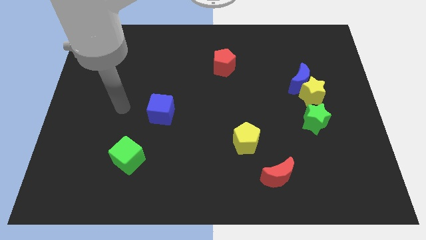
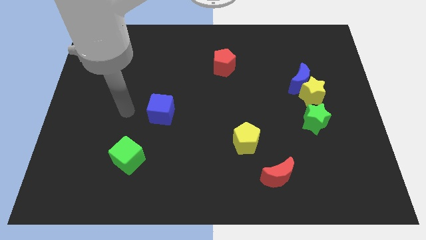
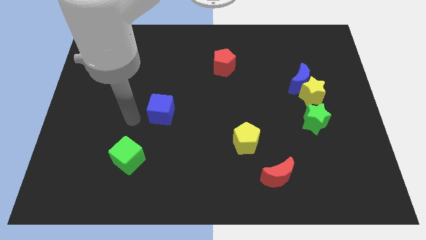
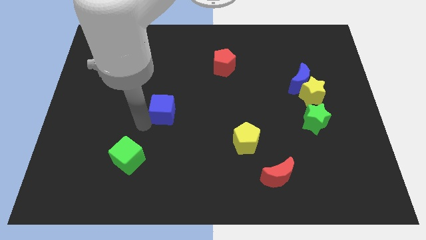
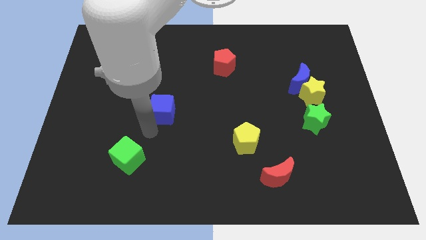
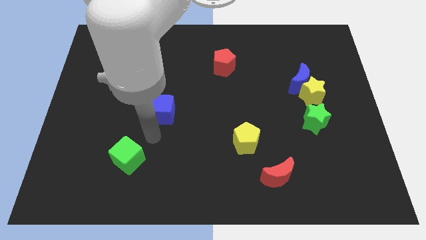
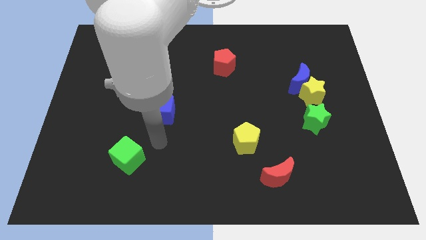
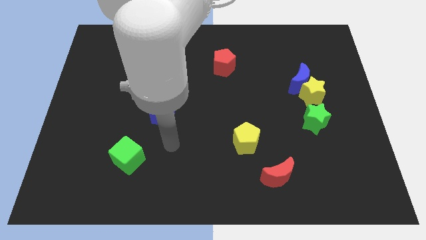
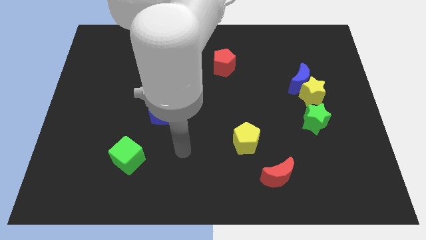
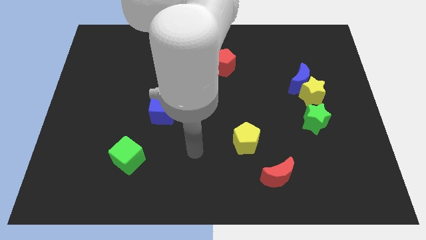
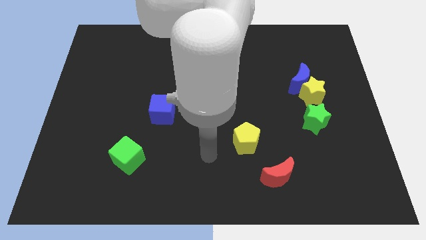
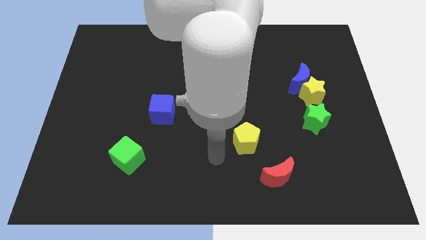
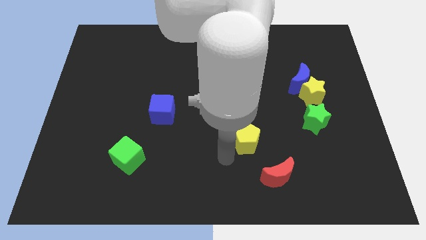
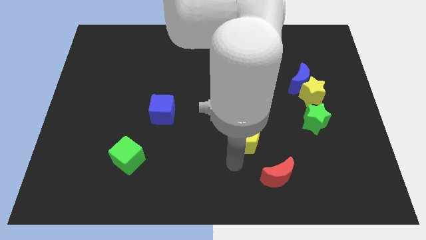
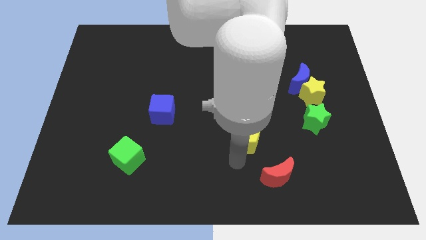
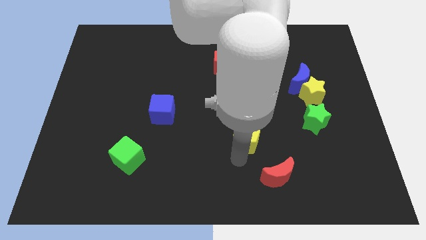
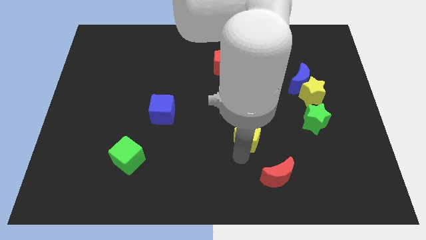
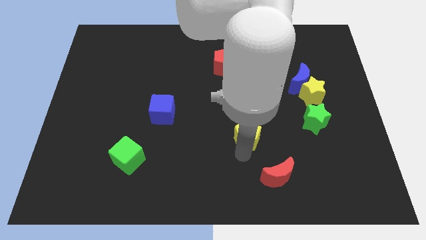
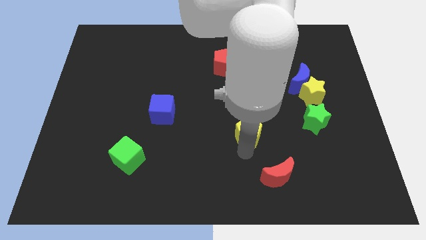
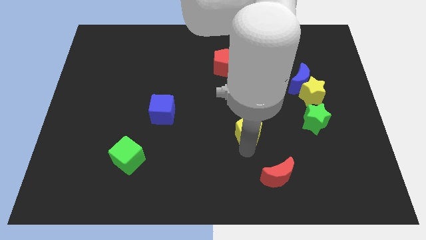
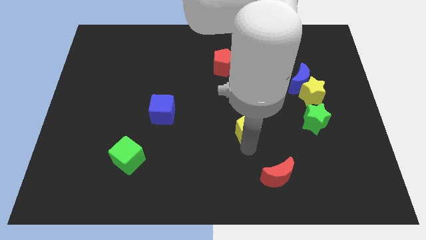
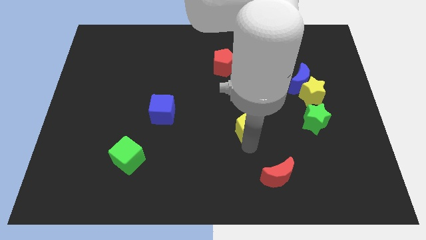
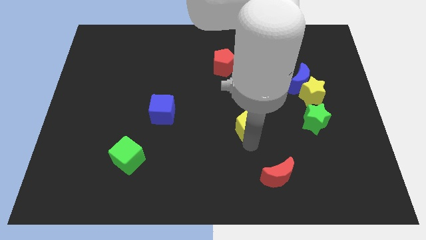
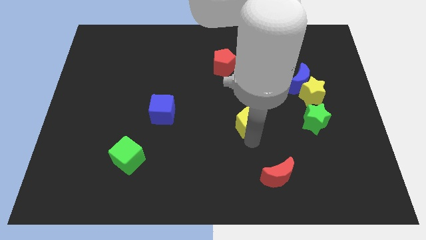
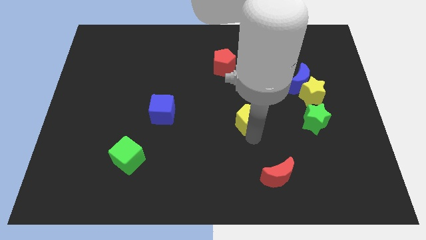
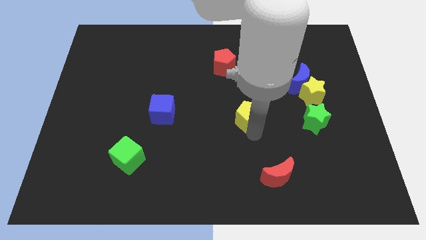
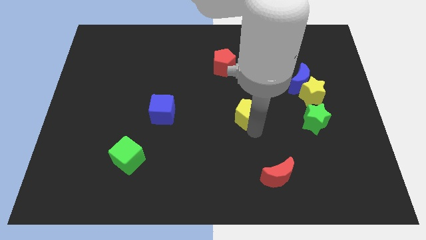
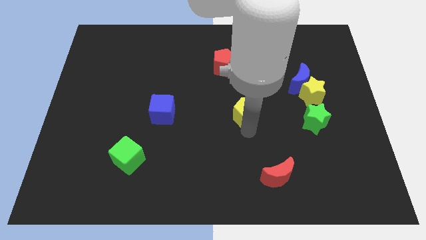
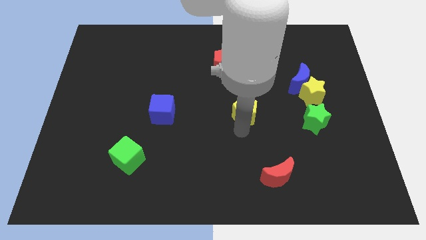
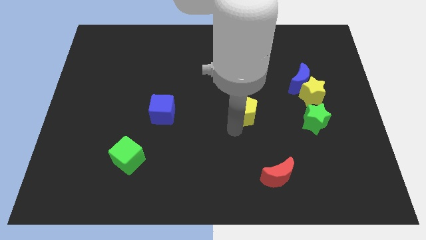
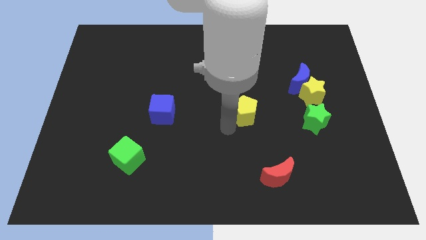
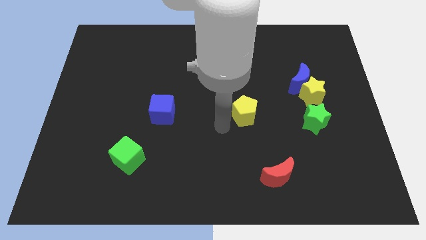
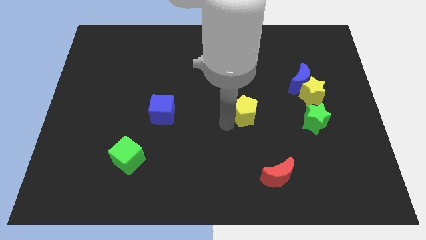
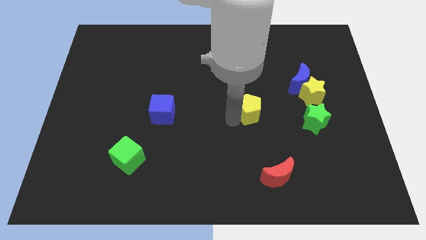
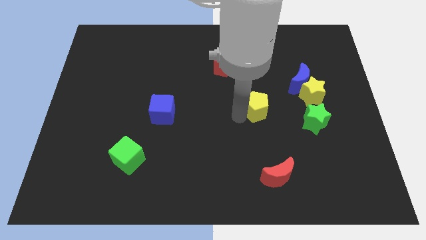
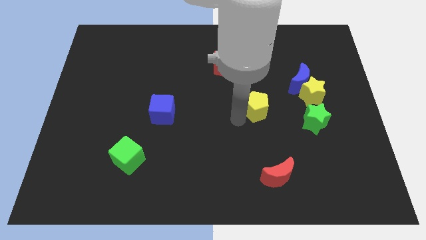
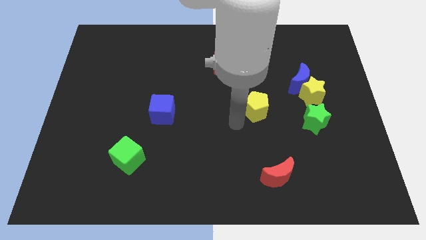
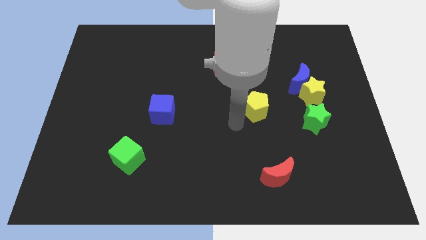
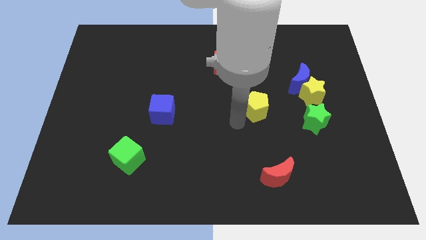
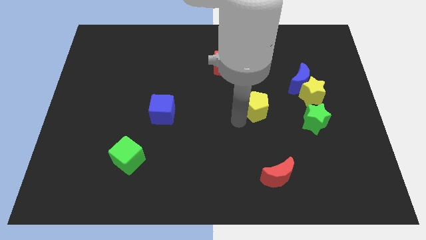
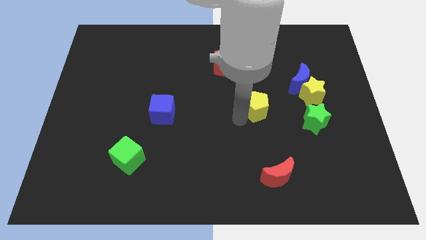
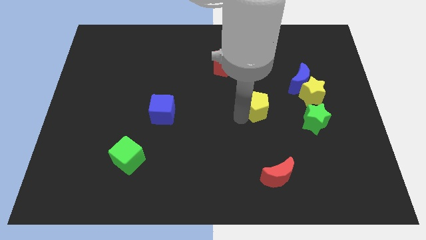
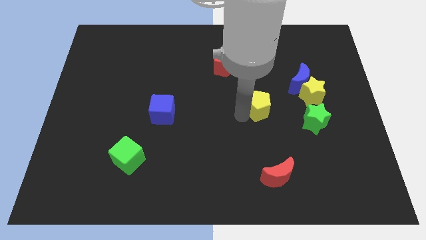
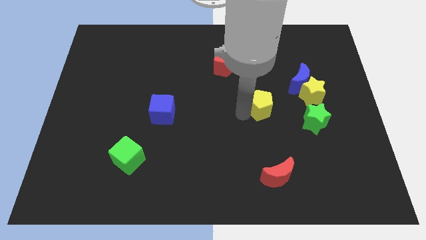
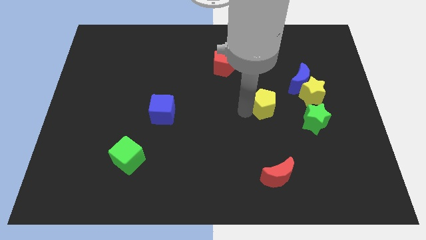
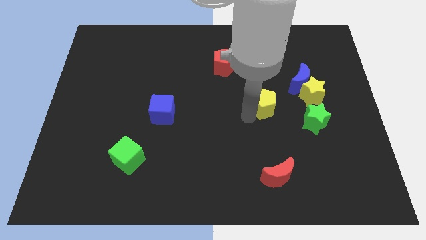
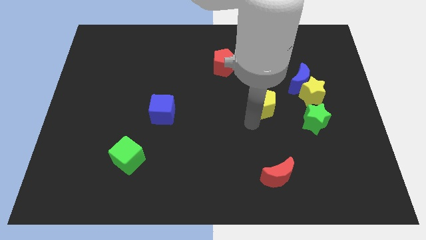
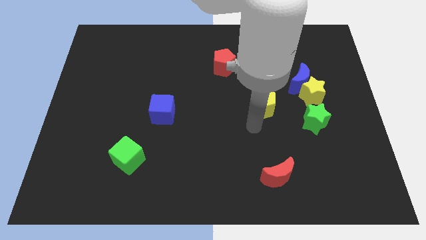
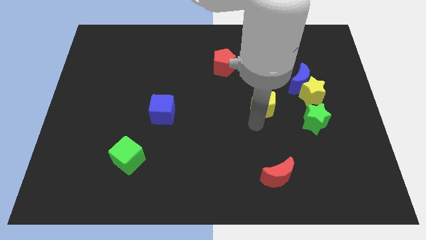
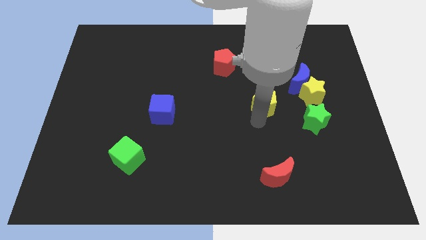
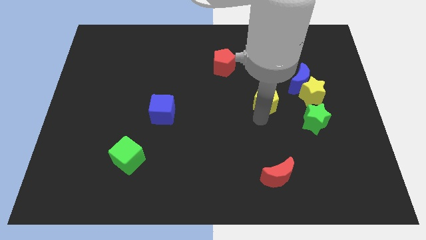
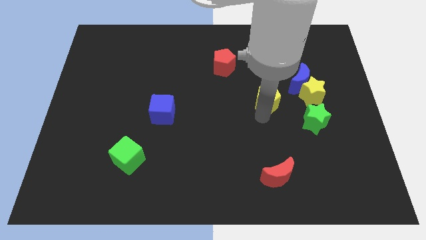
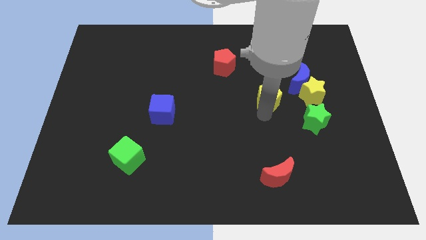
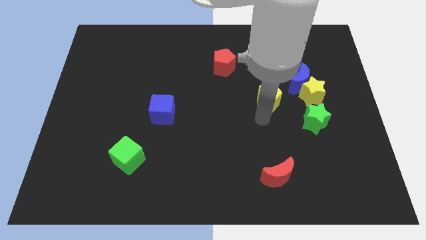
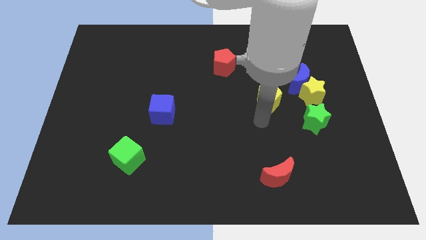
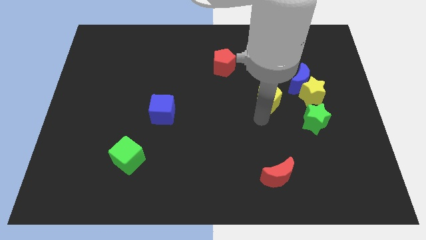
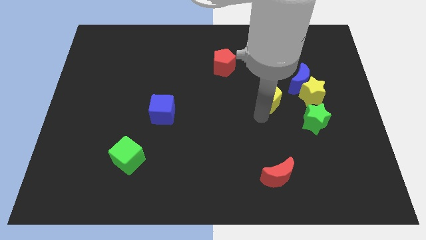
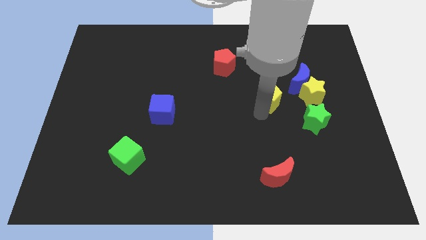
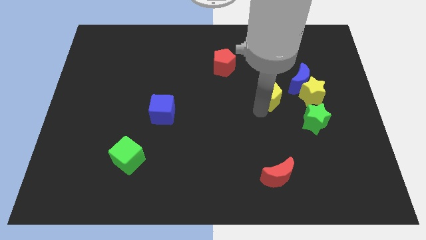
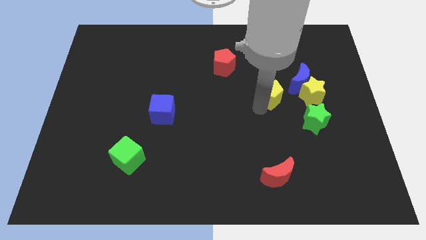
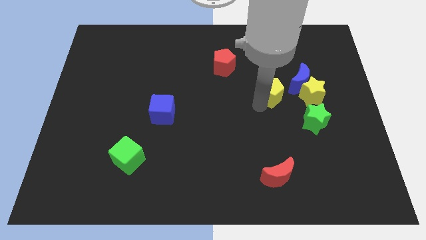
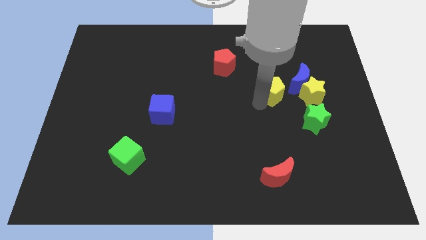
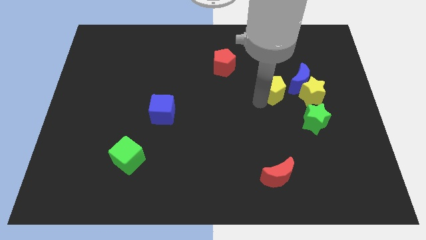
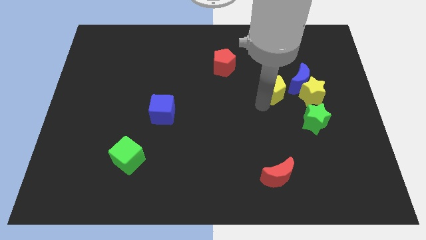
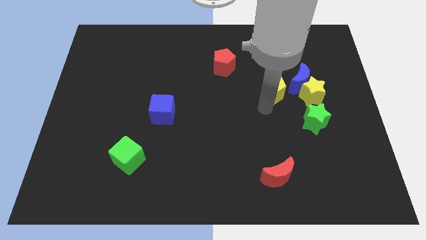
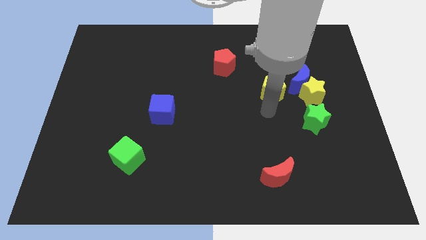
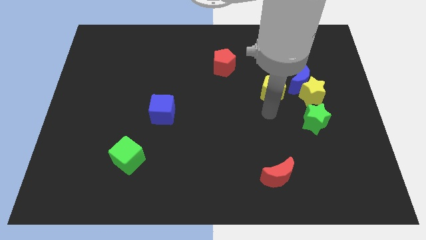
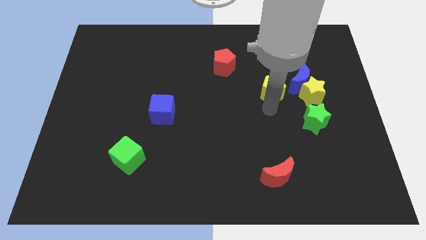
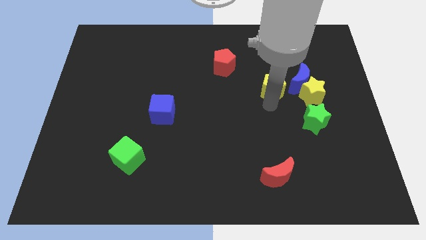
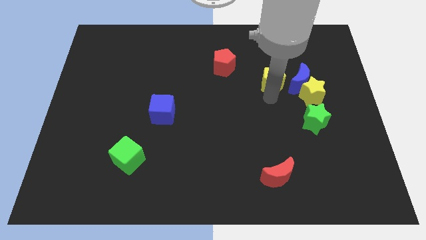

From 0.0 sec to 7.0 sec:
move the yellow pentagon to the top left of the blue moon
